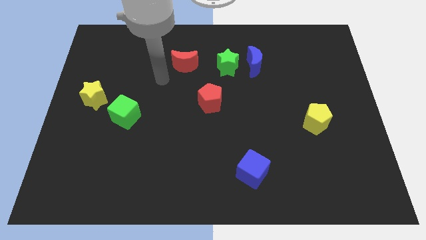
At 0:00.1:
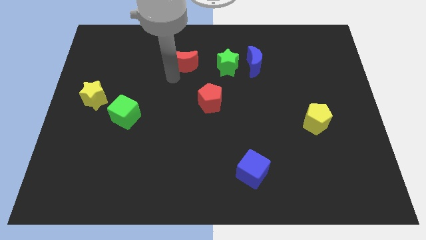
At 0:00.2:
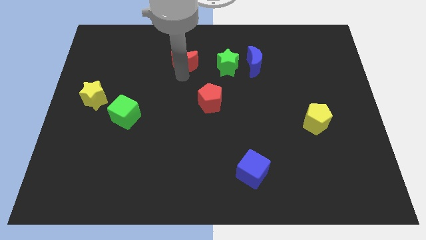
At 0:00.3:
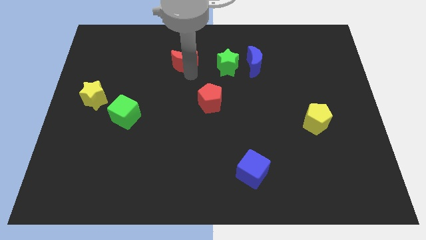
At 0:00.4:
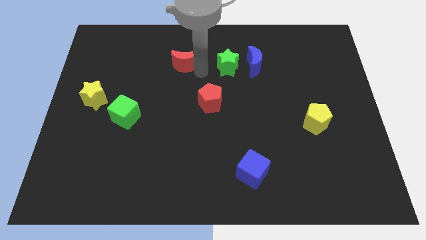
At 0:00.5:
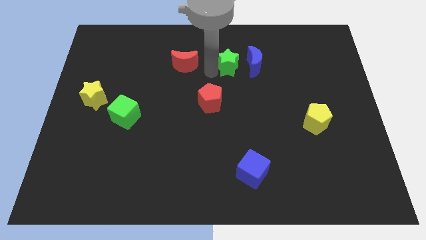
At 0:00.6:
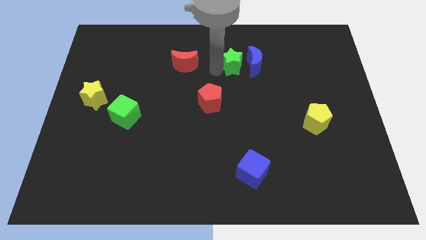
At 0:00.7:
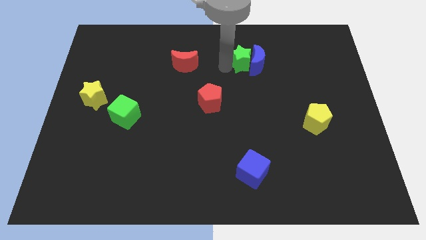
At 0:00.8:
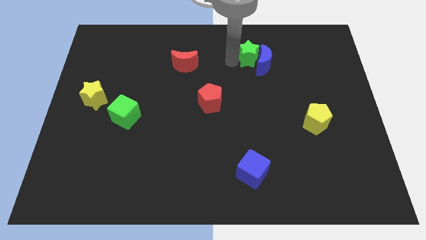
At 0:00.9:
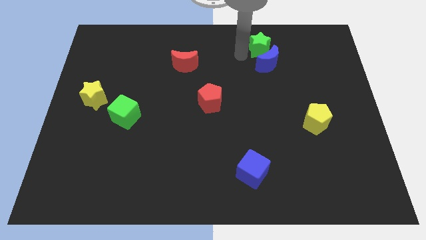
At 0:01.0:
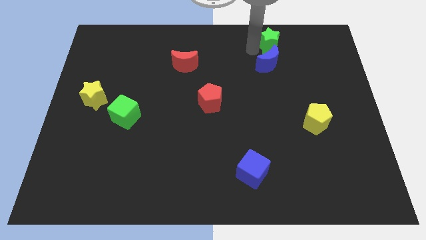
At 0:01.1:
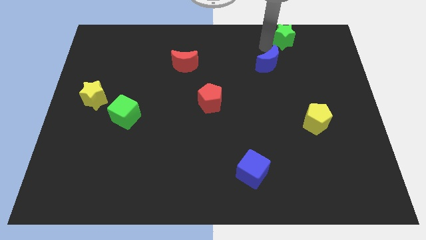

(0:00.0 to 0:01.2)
move the blue moon away from the green star

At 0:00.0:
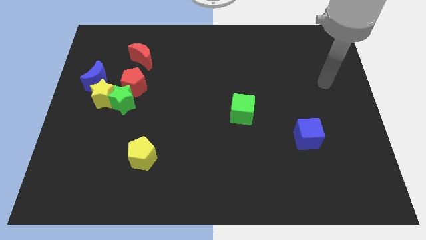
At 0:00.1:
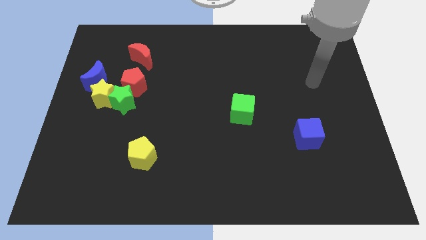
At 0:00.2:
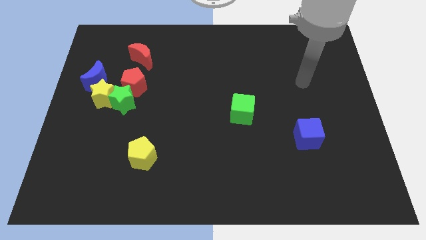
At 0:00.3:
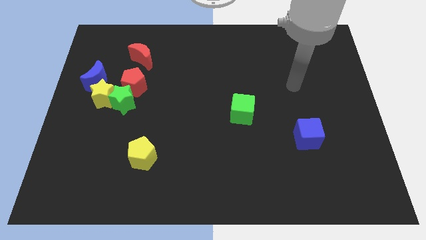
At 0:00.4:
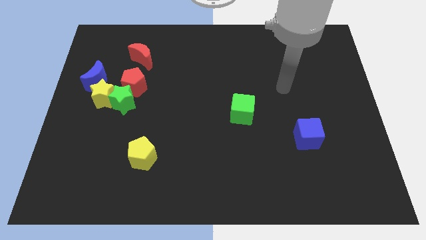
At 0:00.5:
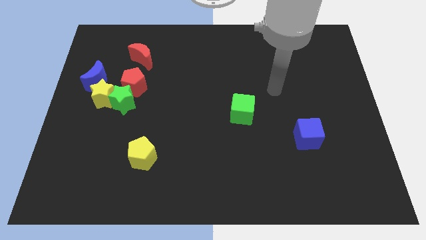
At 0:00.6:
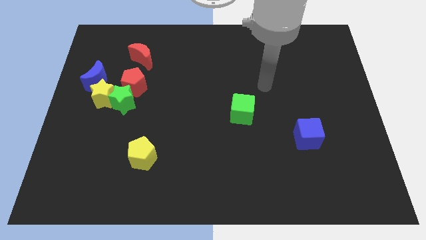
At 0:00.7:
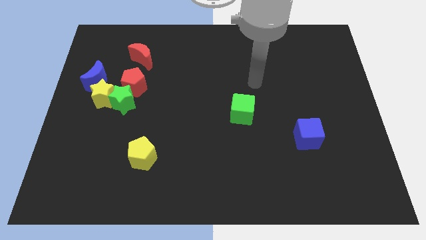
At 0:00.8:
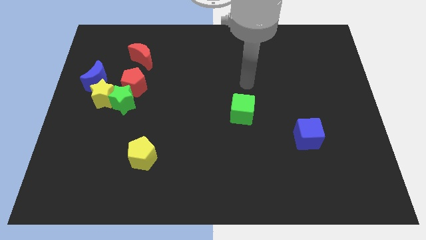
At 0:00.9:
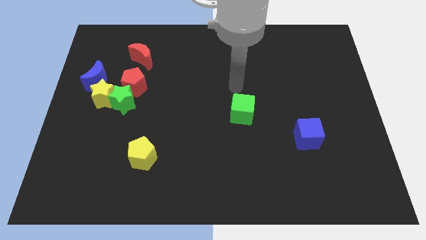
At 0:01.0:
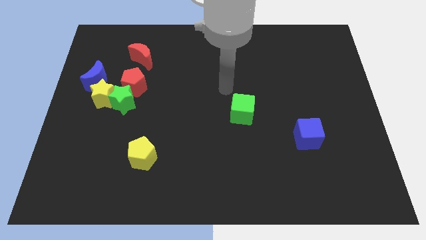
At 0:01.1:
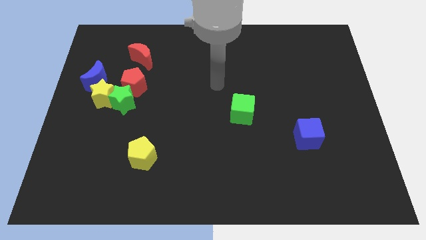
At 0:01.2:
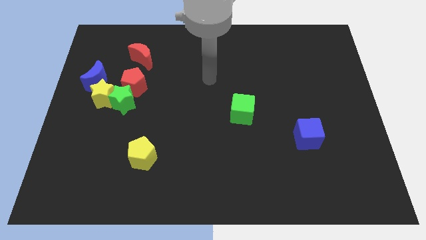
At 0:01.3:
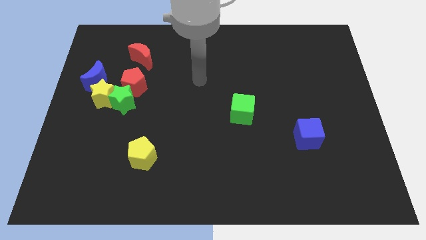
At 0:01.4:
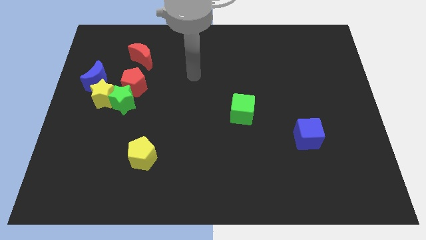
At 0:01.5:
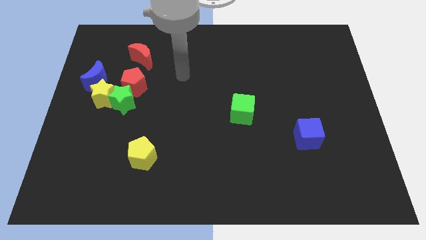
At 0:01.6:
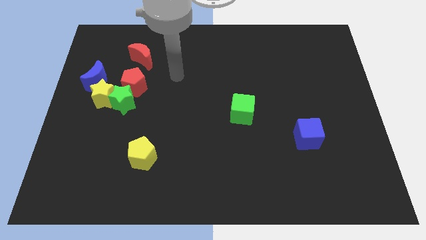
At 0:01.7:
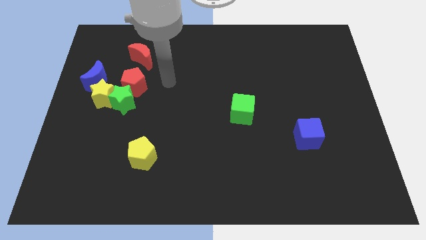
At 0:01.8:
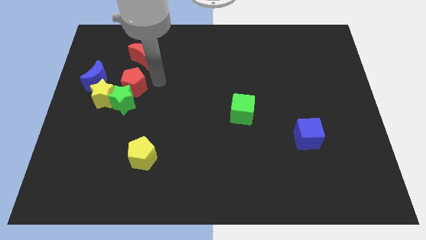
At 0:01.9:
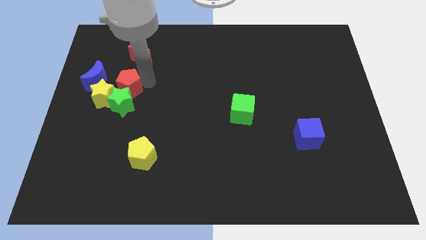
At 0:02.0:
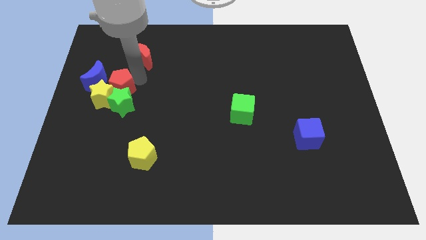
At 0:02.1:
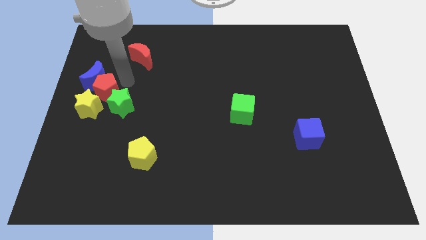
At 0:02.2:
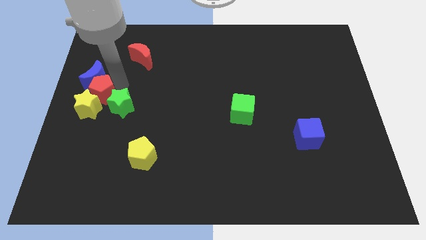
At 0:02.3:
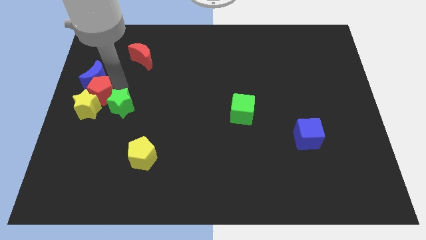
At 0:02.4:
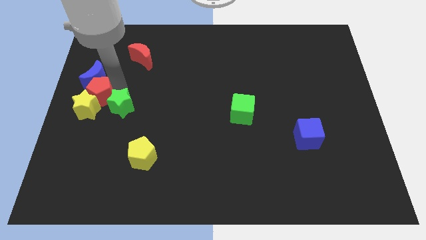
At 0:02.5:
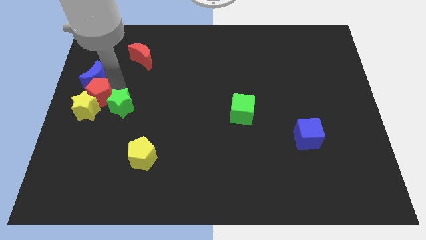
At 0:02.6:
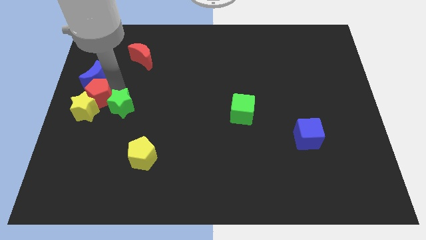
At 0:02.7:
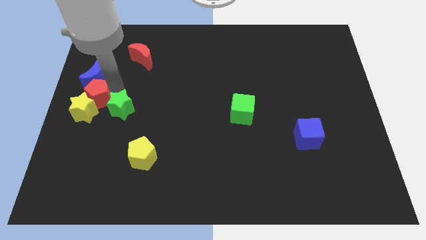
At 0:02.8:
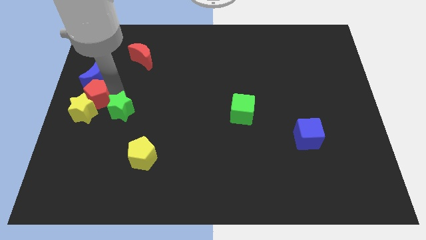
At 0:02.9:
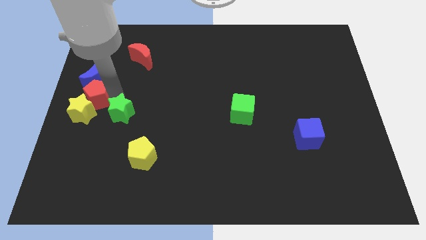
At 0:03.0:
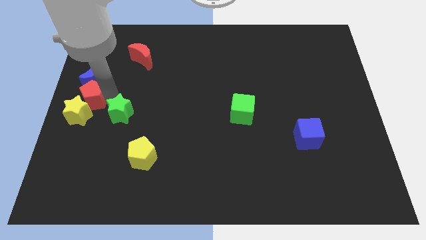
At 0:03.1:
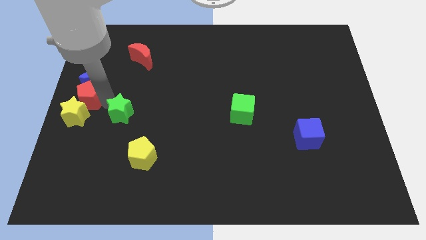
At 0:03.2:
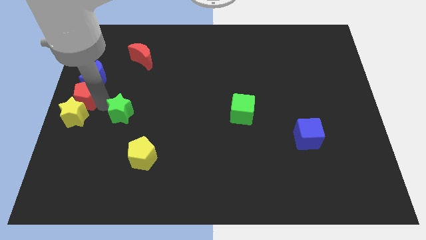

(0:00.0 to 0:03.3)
separate the green star from the yellow star and red pentagon

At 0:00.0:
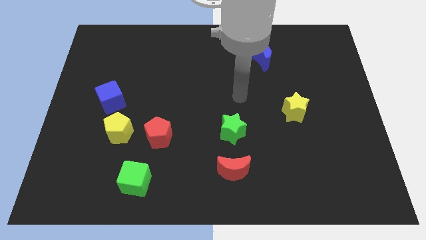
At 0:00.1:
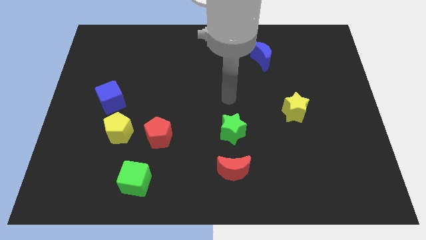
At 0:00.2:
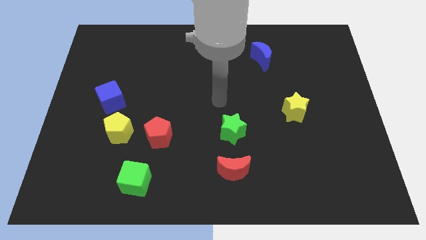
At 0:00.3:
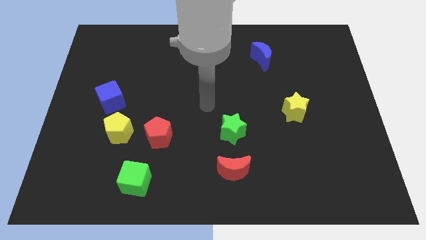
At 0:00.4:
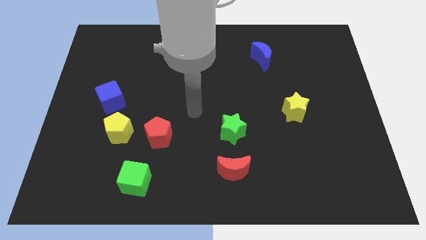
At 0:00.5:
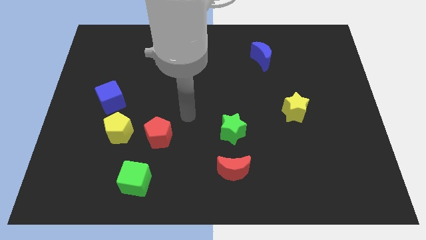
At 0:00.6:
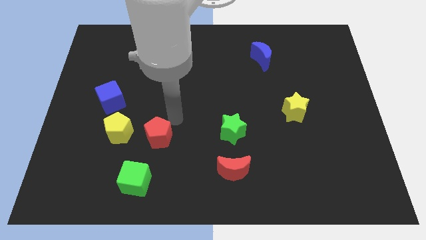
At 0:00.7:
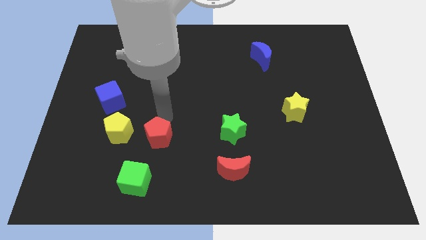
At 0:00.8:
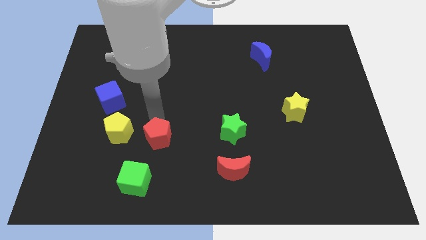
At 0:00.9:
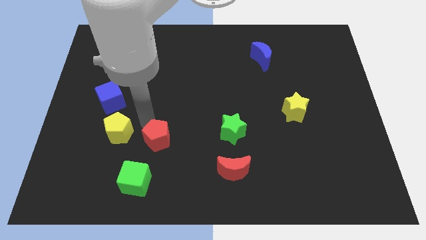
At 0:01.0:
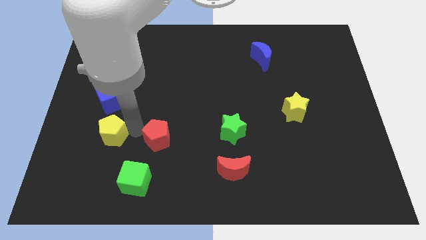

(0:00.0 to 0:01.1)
pull the red pentagon apart from the yellow pentagon

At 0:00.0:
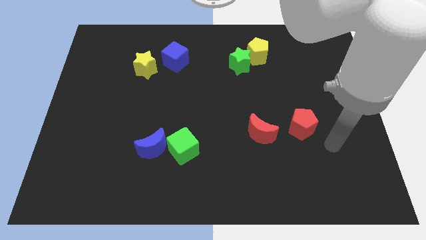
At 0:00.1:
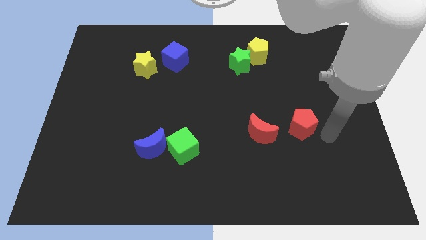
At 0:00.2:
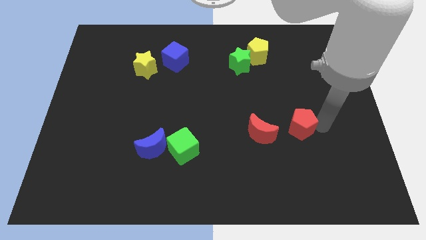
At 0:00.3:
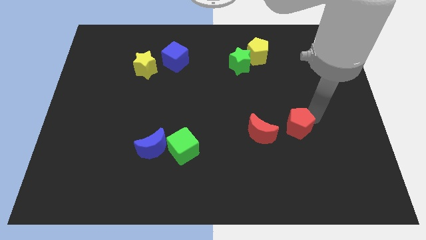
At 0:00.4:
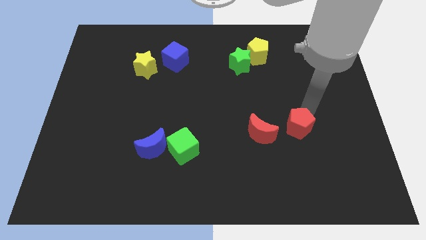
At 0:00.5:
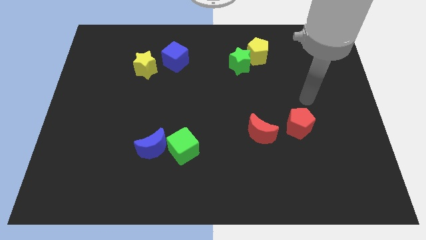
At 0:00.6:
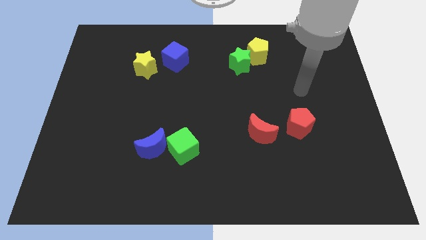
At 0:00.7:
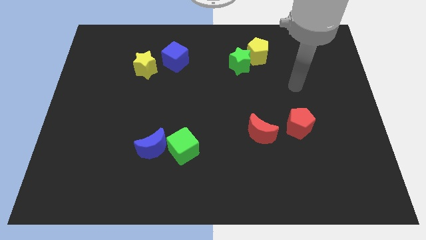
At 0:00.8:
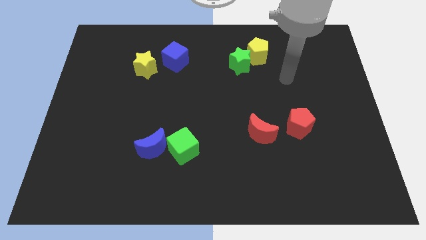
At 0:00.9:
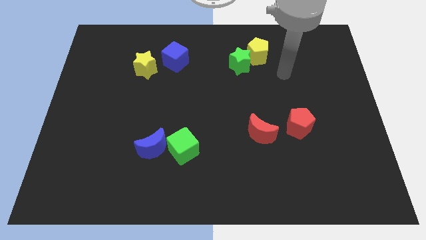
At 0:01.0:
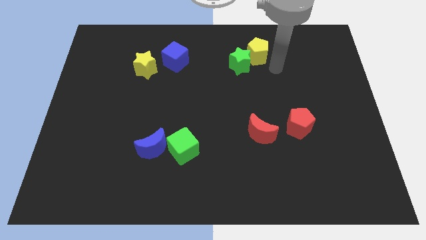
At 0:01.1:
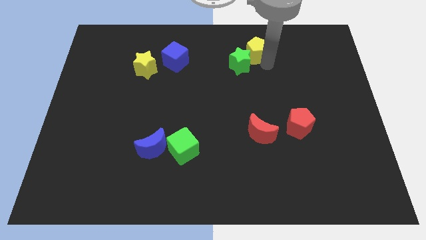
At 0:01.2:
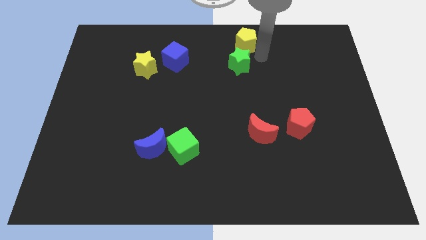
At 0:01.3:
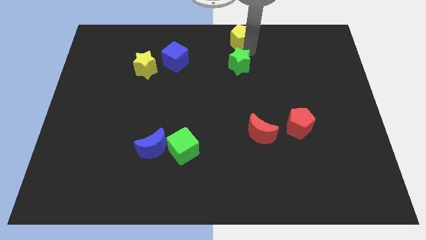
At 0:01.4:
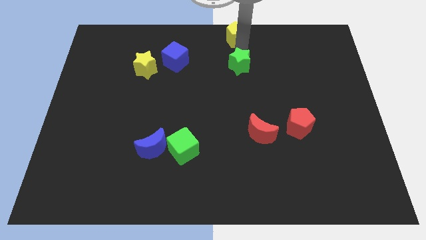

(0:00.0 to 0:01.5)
separate the green star from the yellow pentagon

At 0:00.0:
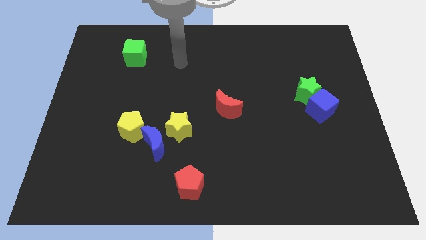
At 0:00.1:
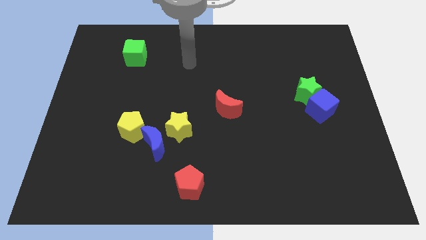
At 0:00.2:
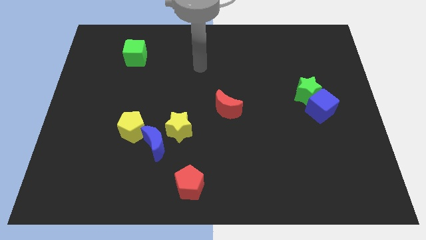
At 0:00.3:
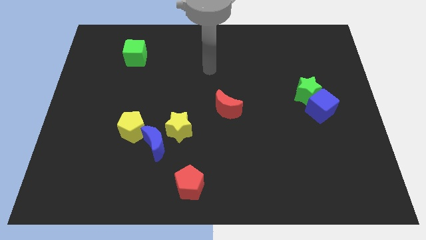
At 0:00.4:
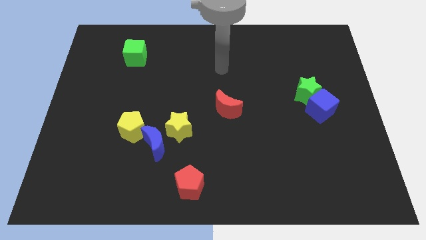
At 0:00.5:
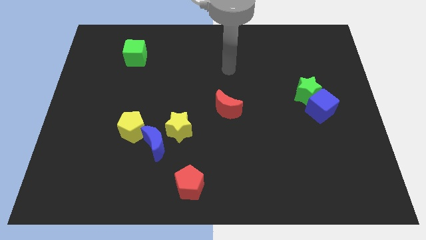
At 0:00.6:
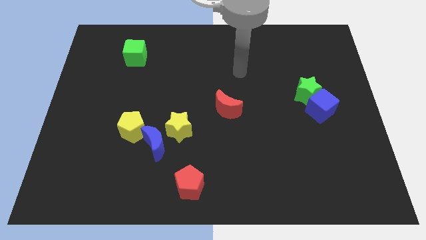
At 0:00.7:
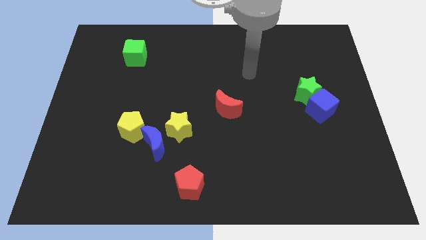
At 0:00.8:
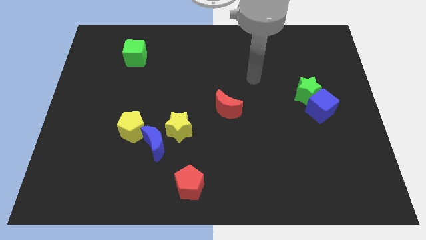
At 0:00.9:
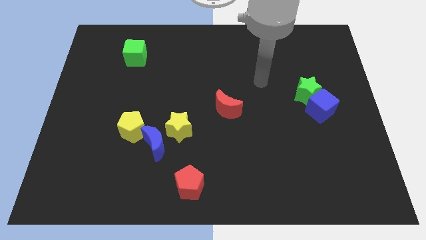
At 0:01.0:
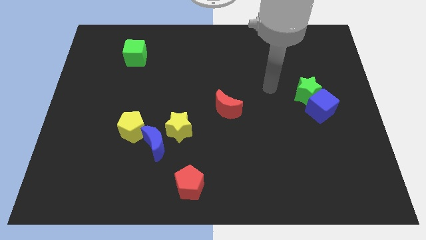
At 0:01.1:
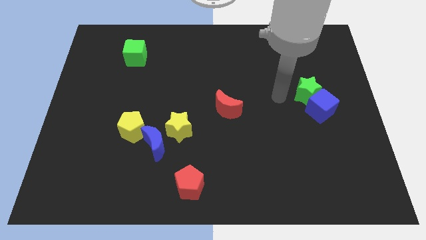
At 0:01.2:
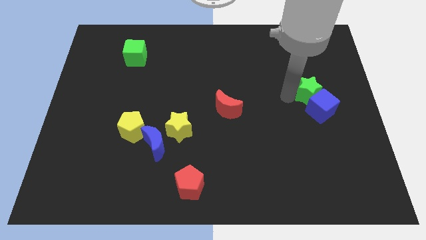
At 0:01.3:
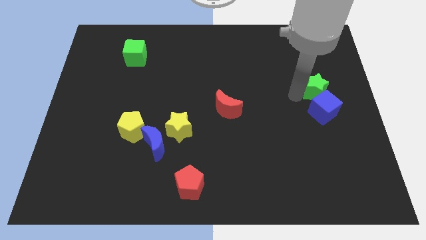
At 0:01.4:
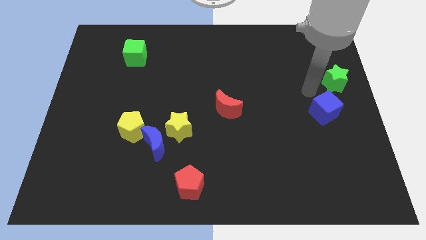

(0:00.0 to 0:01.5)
move the blue cube away from the green star

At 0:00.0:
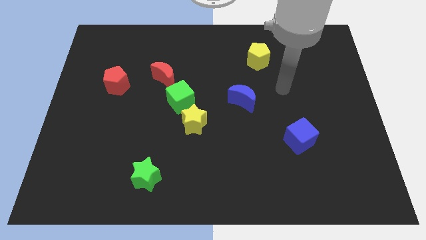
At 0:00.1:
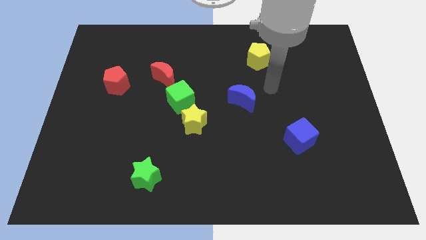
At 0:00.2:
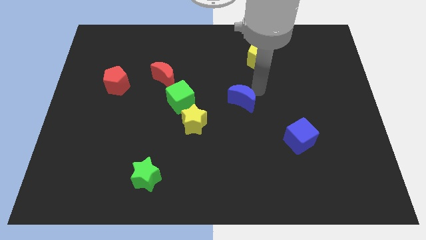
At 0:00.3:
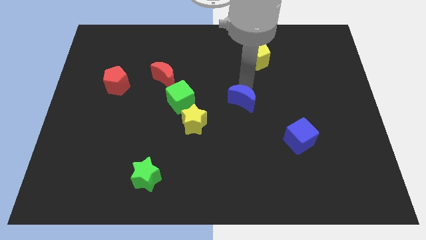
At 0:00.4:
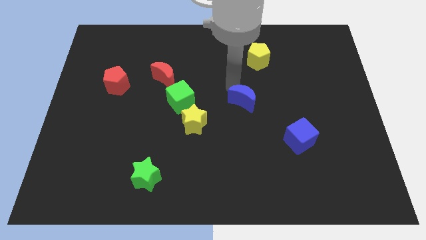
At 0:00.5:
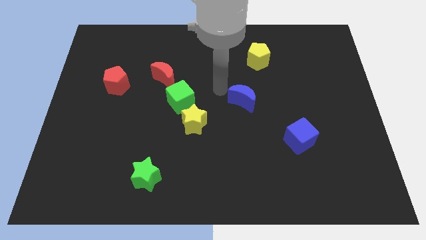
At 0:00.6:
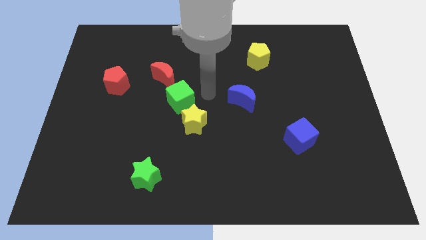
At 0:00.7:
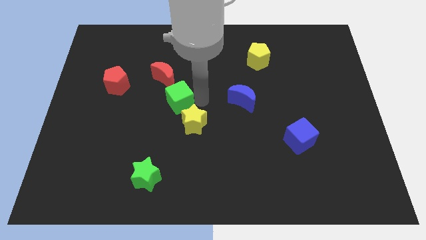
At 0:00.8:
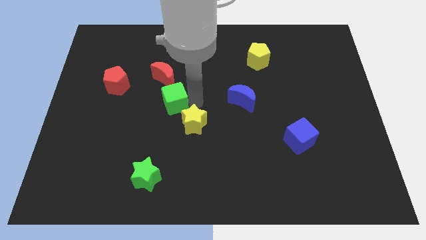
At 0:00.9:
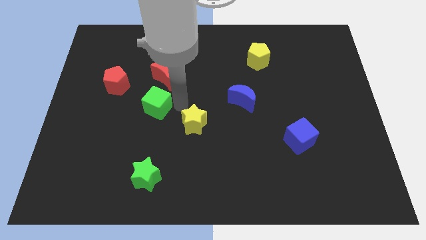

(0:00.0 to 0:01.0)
separate the yellow star from the green cube
